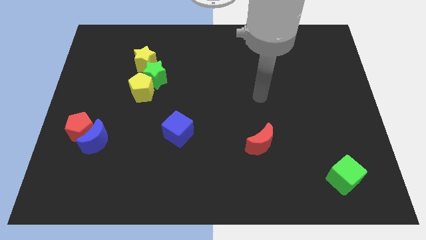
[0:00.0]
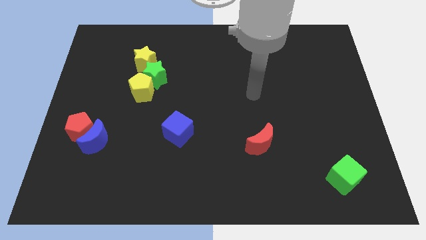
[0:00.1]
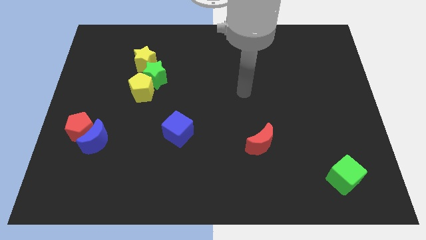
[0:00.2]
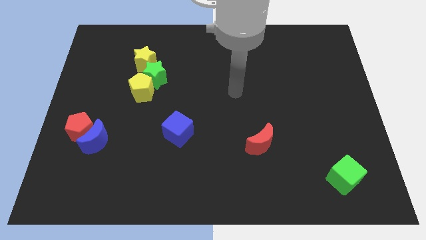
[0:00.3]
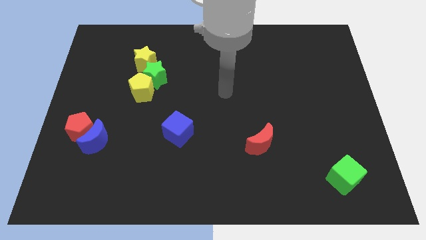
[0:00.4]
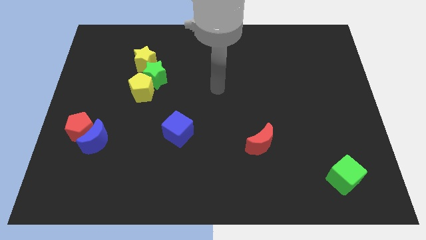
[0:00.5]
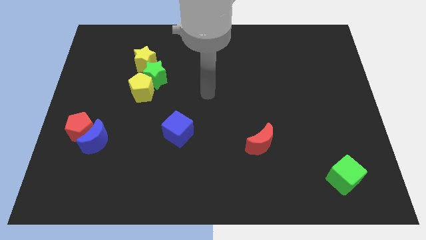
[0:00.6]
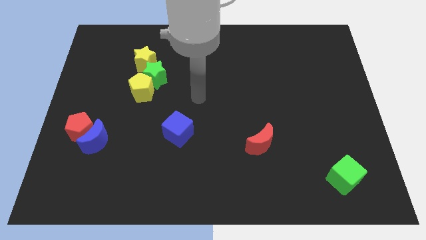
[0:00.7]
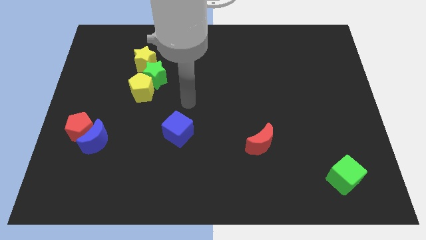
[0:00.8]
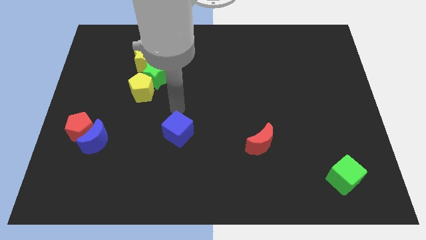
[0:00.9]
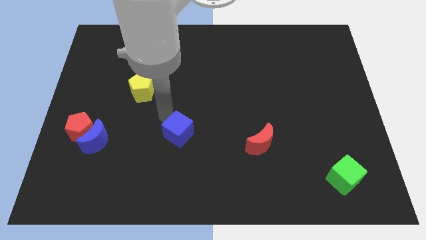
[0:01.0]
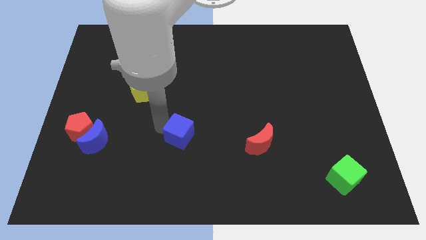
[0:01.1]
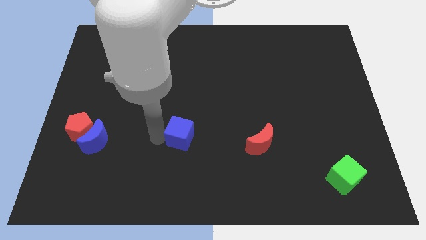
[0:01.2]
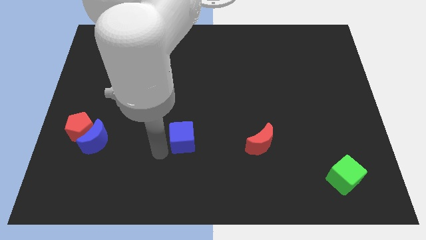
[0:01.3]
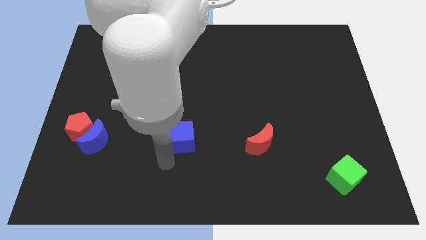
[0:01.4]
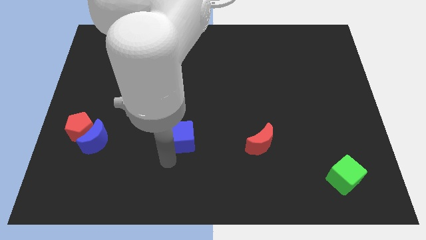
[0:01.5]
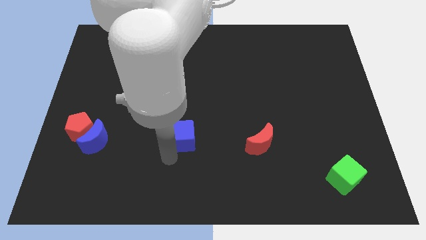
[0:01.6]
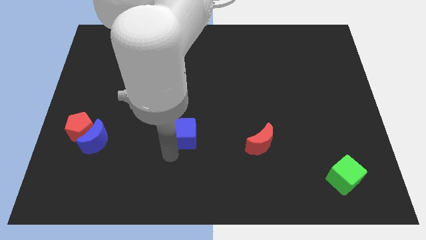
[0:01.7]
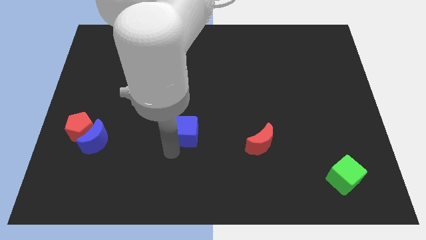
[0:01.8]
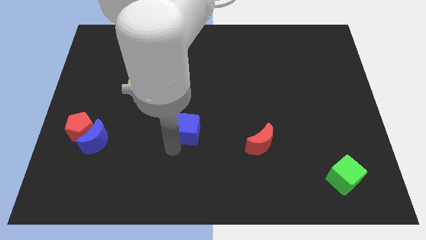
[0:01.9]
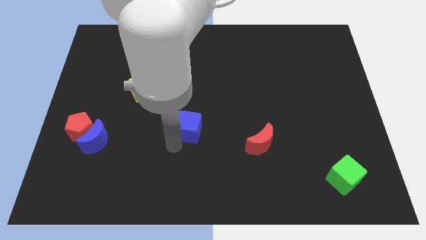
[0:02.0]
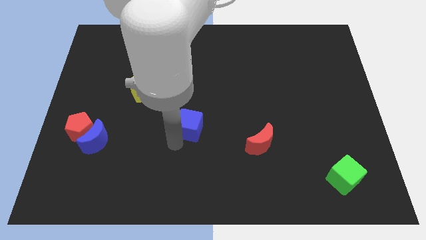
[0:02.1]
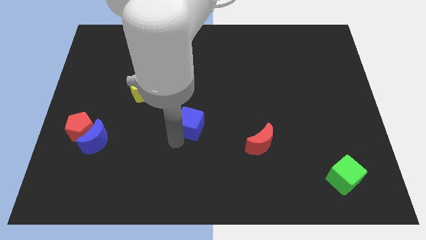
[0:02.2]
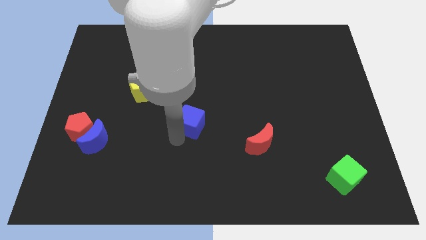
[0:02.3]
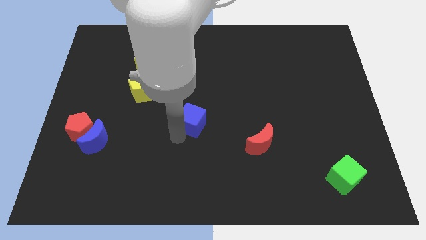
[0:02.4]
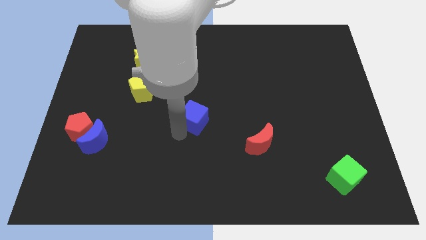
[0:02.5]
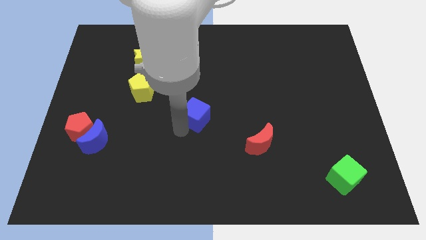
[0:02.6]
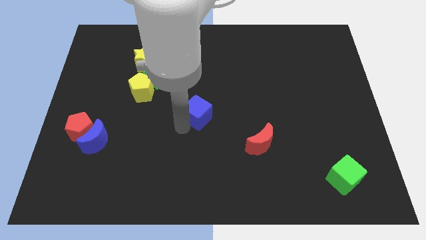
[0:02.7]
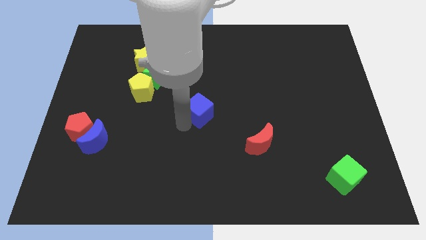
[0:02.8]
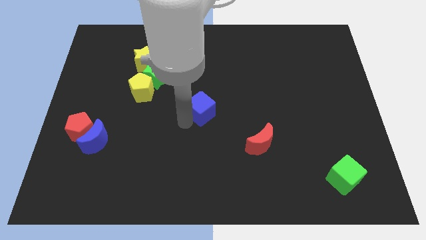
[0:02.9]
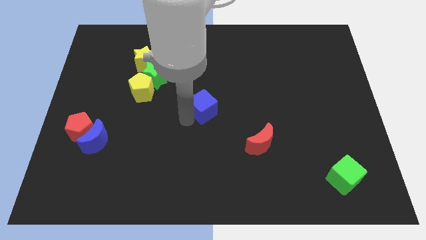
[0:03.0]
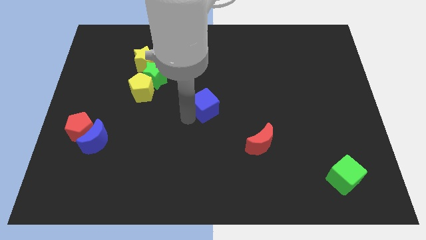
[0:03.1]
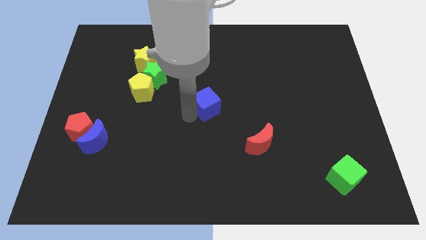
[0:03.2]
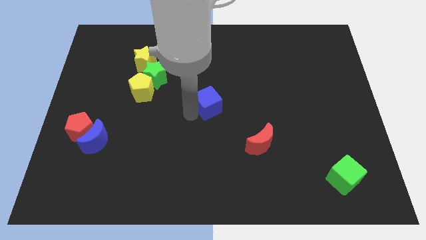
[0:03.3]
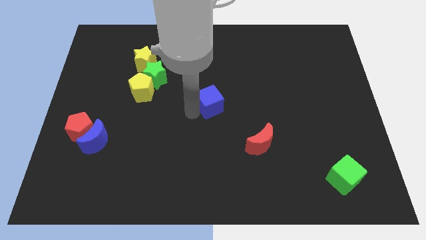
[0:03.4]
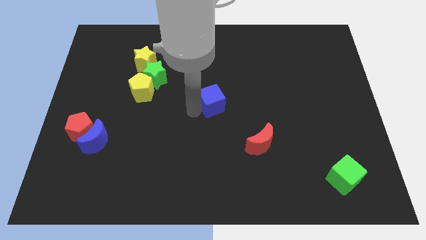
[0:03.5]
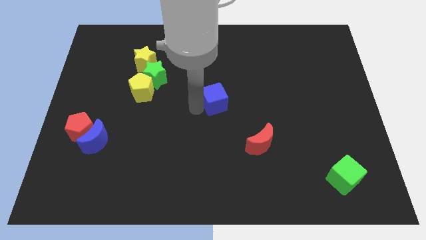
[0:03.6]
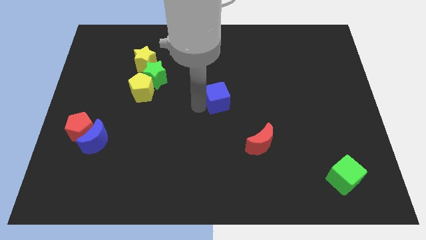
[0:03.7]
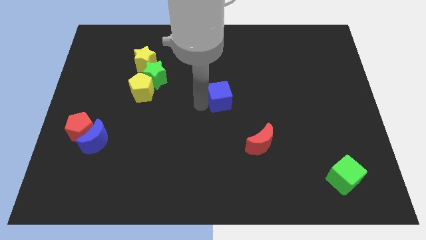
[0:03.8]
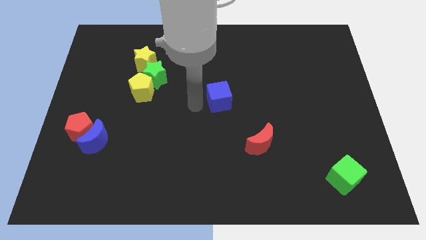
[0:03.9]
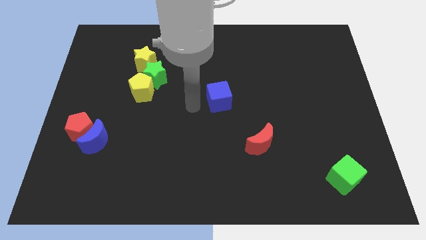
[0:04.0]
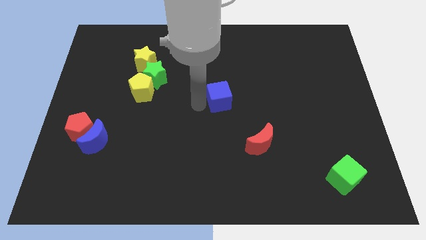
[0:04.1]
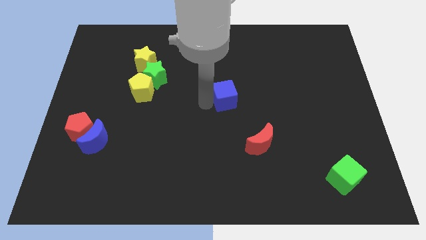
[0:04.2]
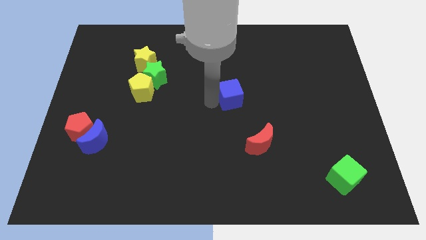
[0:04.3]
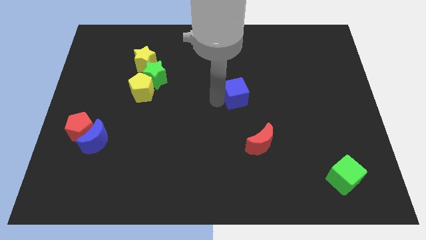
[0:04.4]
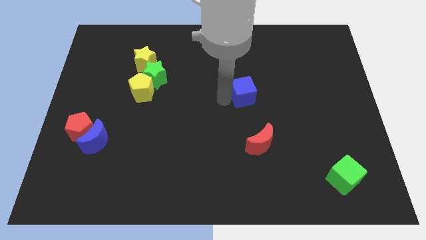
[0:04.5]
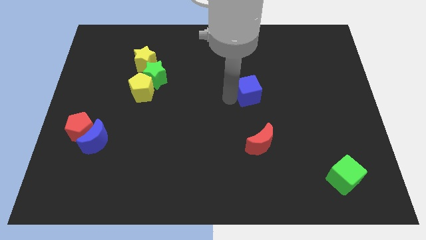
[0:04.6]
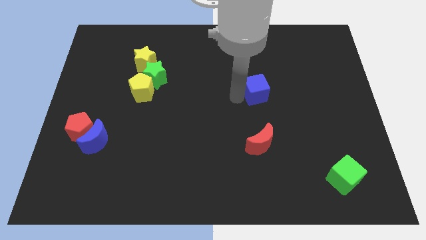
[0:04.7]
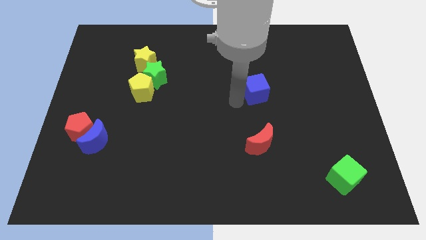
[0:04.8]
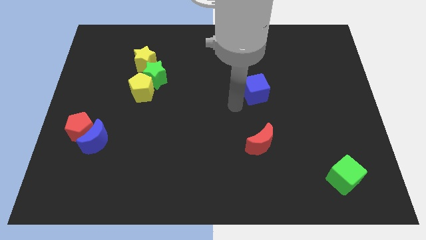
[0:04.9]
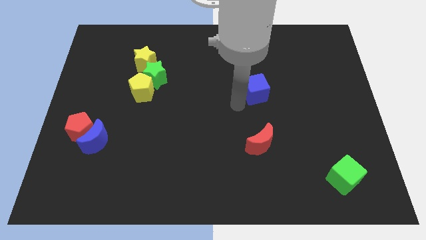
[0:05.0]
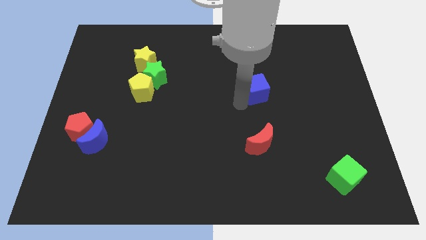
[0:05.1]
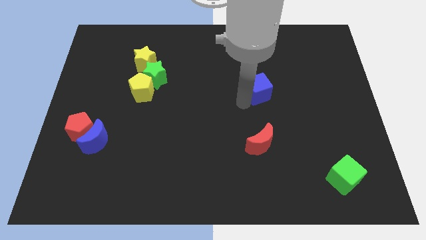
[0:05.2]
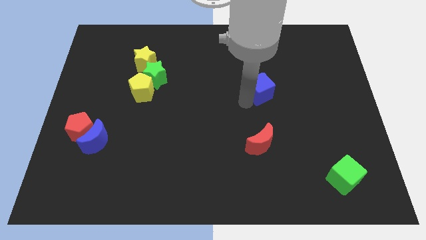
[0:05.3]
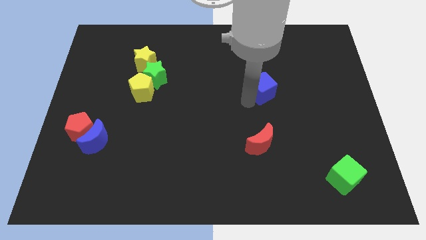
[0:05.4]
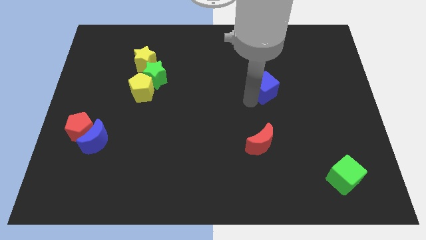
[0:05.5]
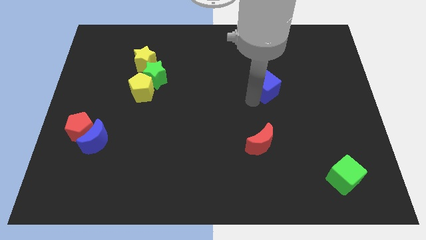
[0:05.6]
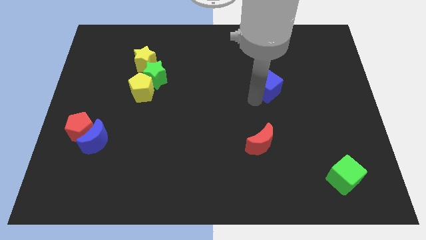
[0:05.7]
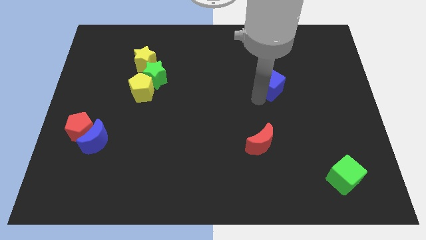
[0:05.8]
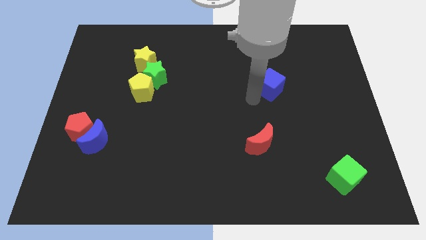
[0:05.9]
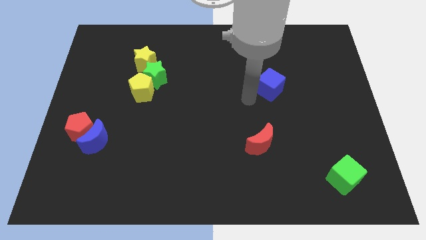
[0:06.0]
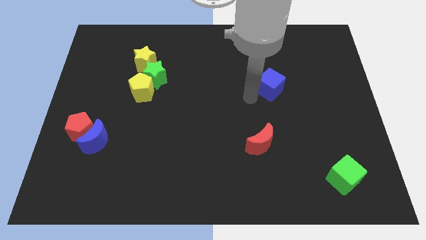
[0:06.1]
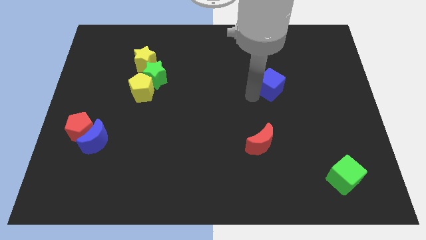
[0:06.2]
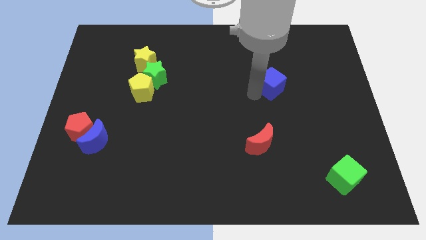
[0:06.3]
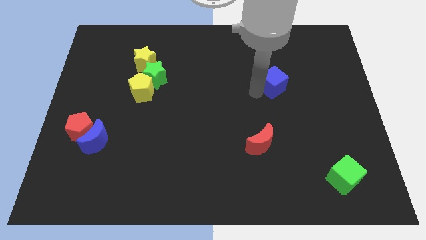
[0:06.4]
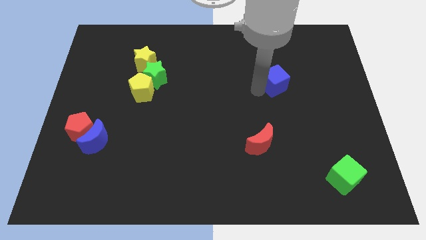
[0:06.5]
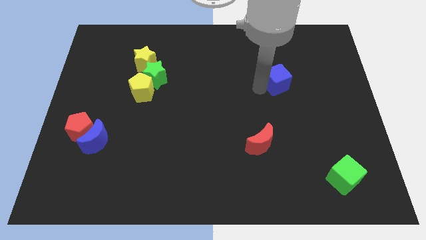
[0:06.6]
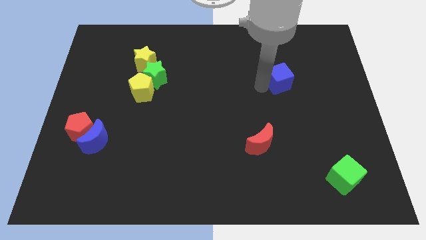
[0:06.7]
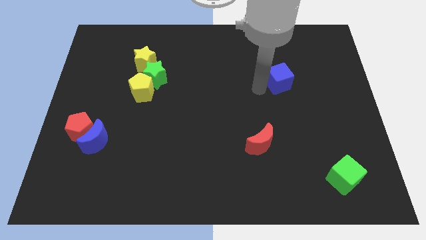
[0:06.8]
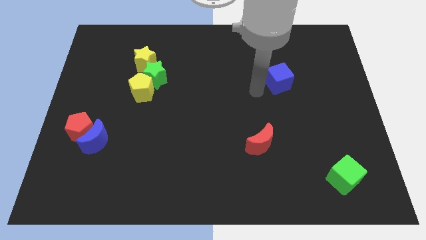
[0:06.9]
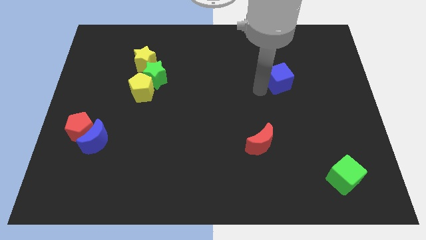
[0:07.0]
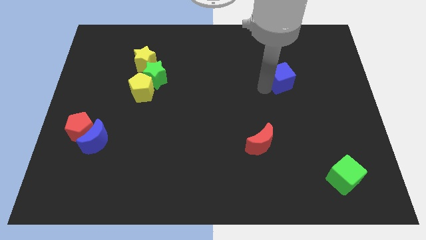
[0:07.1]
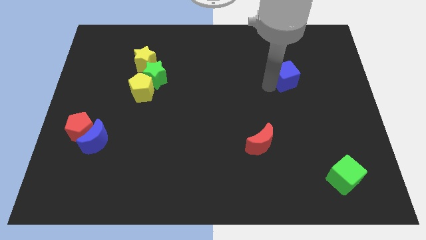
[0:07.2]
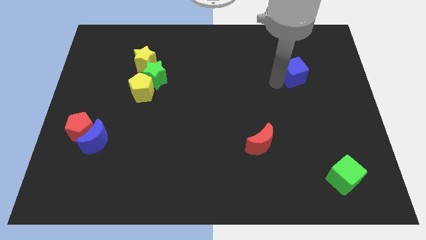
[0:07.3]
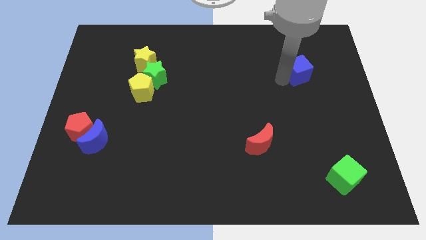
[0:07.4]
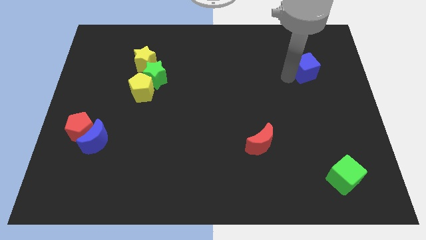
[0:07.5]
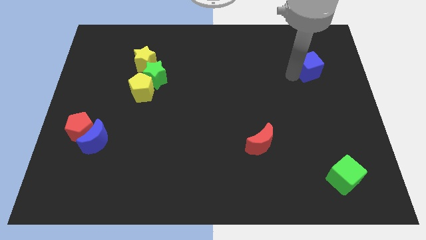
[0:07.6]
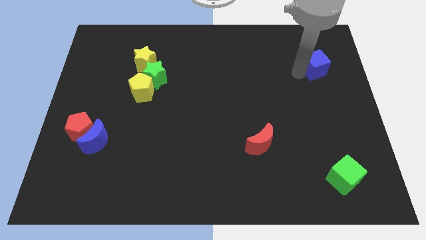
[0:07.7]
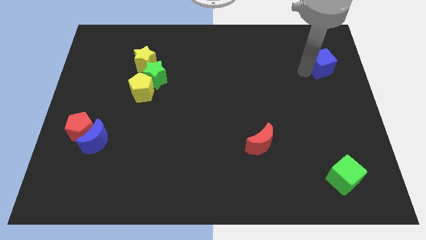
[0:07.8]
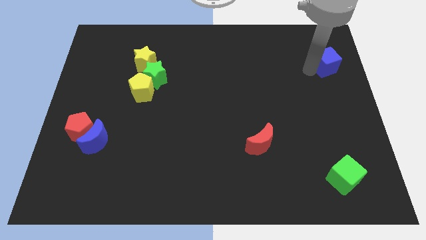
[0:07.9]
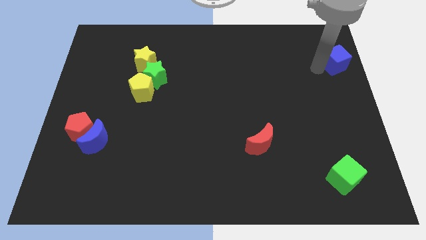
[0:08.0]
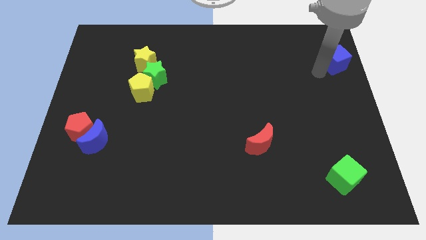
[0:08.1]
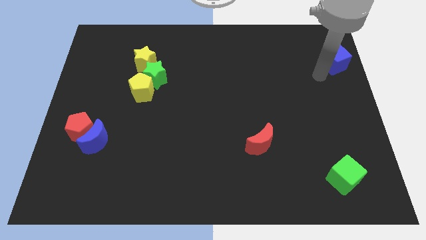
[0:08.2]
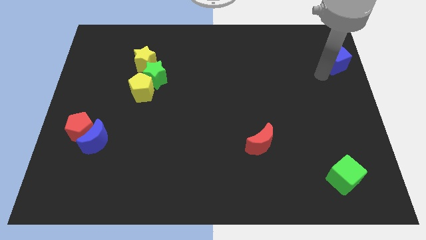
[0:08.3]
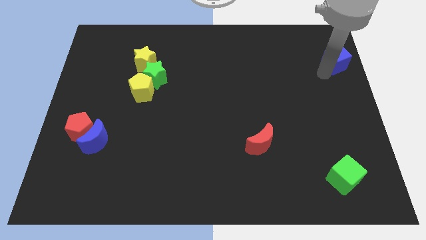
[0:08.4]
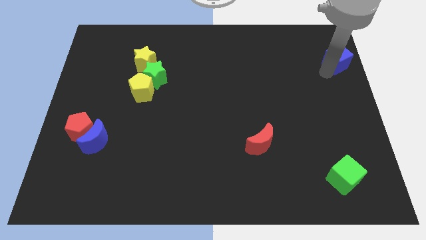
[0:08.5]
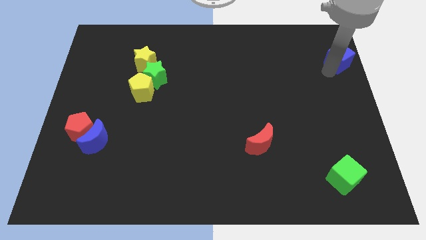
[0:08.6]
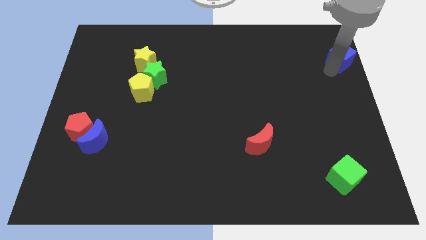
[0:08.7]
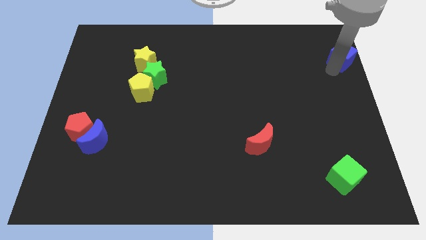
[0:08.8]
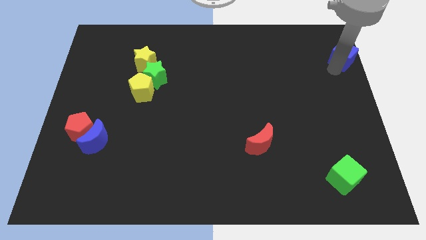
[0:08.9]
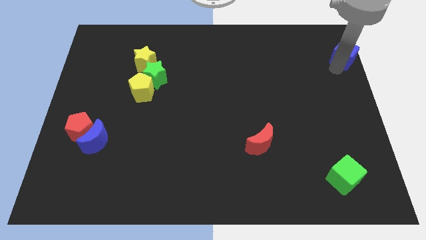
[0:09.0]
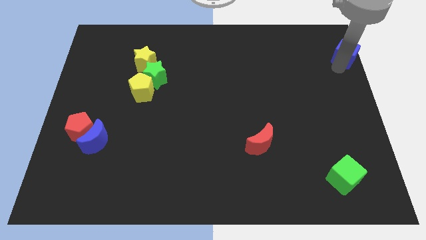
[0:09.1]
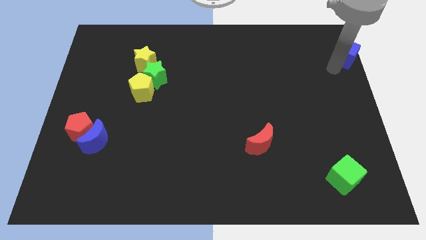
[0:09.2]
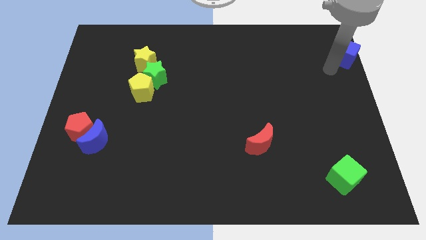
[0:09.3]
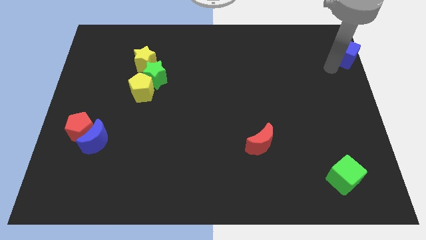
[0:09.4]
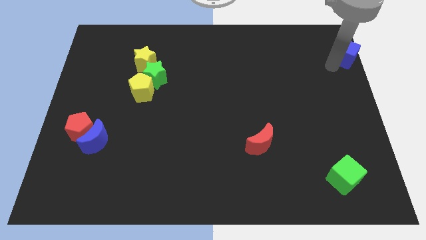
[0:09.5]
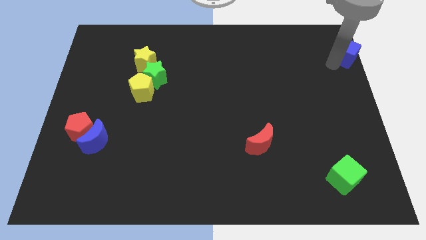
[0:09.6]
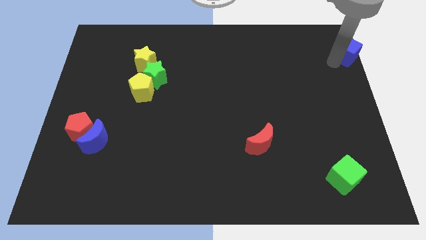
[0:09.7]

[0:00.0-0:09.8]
move the blue cube to the top right of the board
